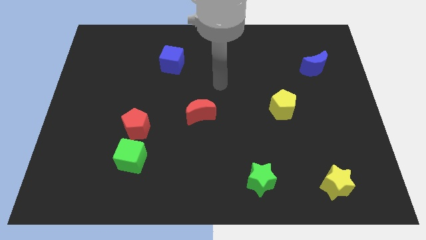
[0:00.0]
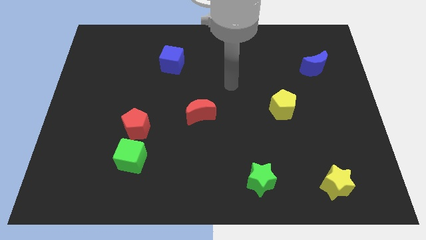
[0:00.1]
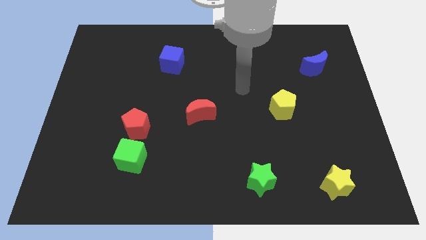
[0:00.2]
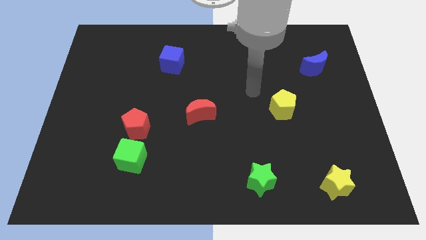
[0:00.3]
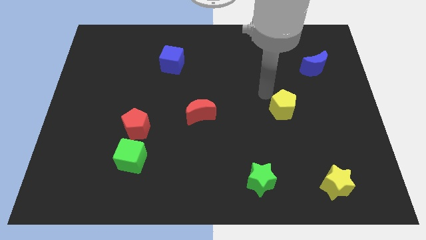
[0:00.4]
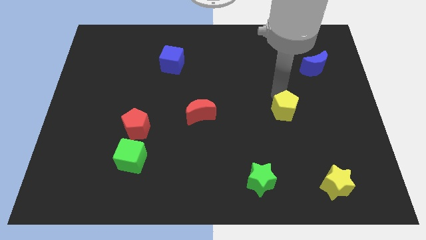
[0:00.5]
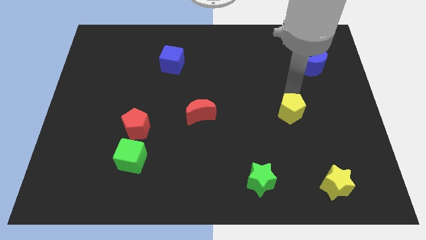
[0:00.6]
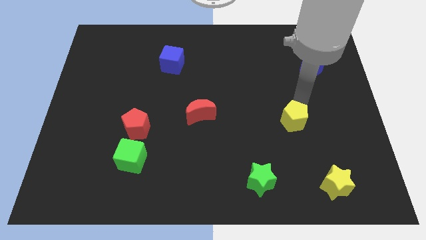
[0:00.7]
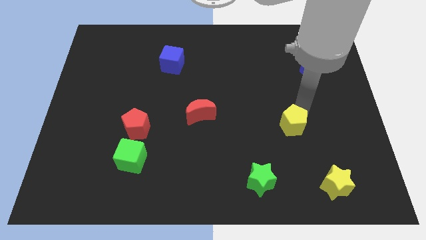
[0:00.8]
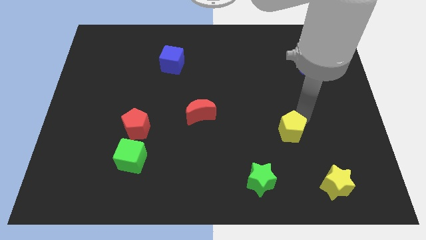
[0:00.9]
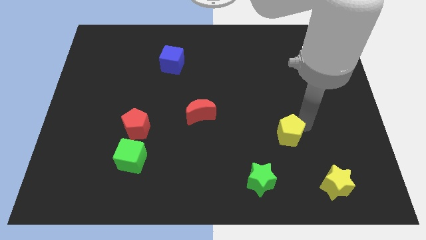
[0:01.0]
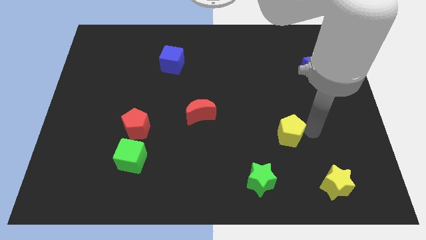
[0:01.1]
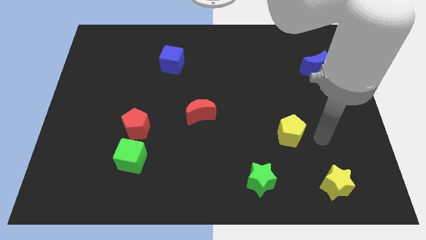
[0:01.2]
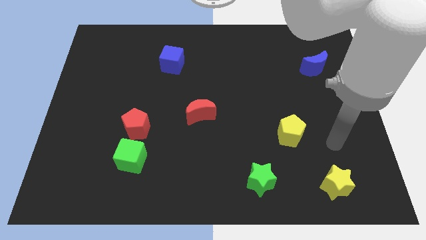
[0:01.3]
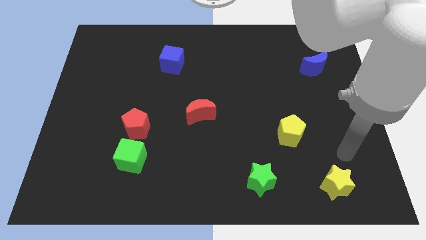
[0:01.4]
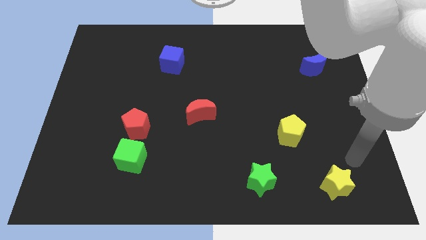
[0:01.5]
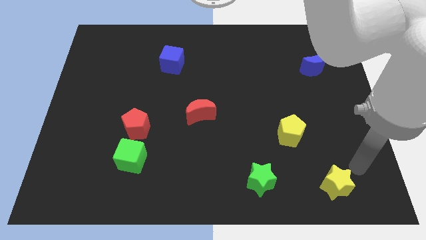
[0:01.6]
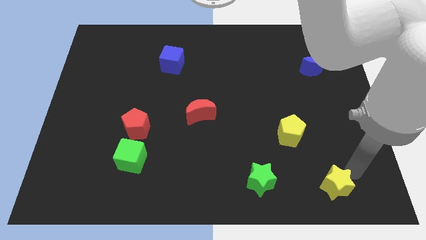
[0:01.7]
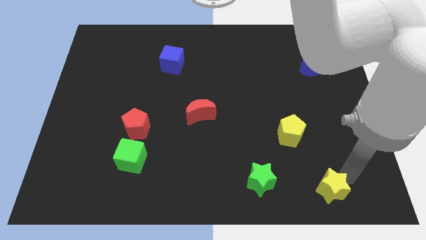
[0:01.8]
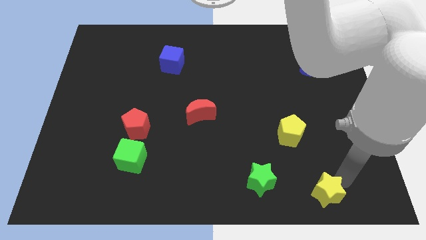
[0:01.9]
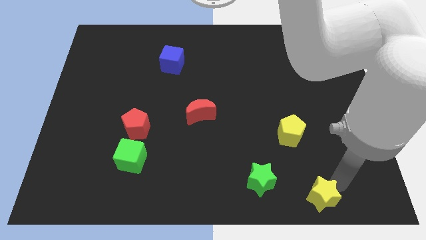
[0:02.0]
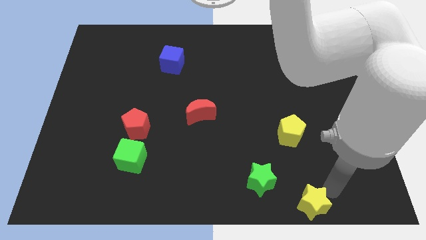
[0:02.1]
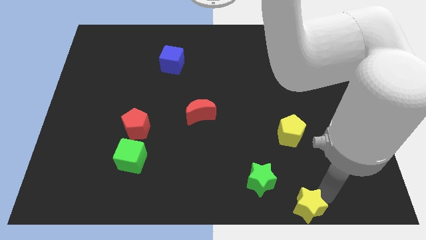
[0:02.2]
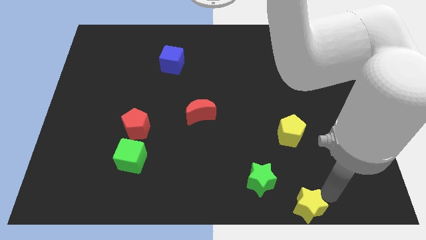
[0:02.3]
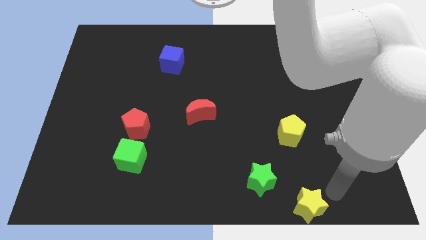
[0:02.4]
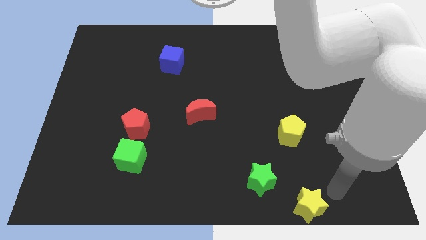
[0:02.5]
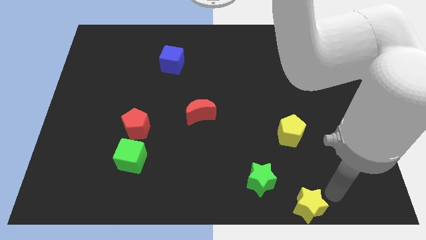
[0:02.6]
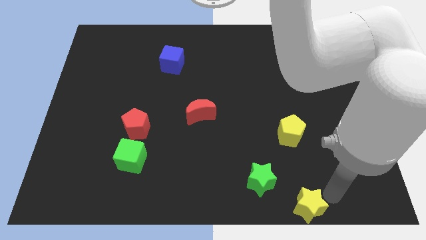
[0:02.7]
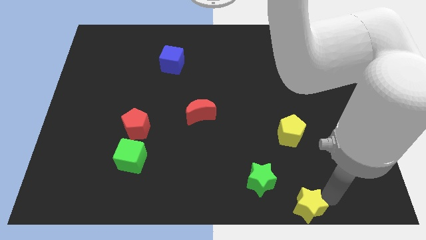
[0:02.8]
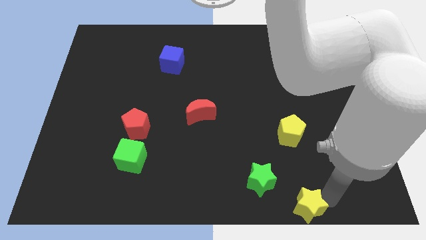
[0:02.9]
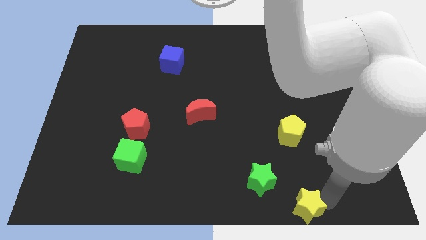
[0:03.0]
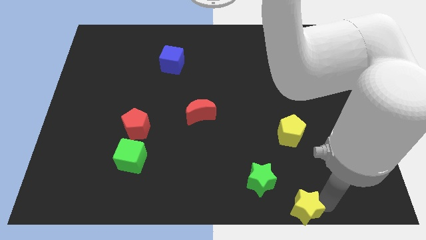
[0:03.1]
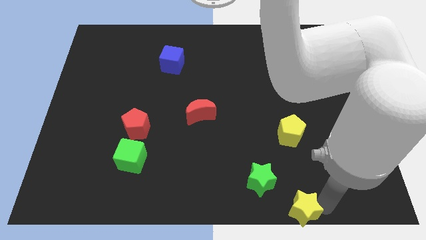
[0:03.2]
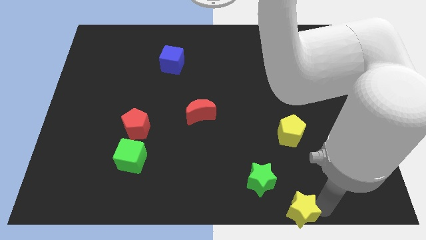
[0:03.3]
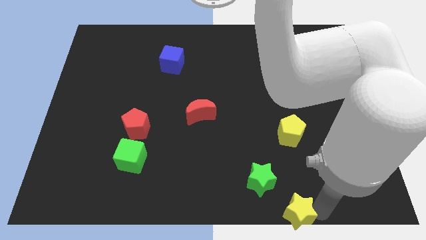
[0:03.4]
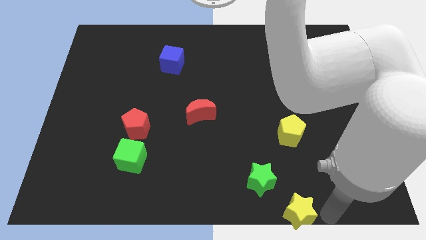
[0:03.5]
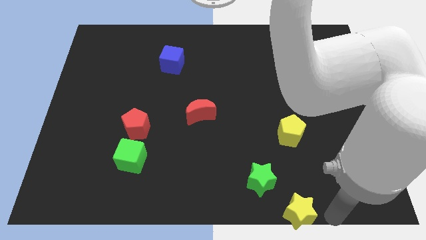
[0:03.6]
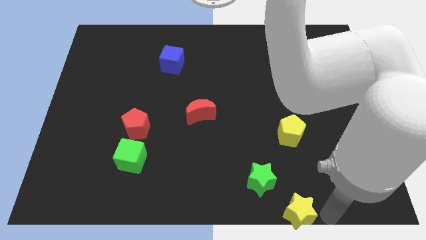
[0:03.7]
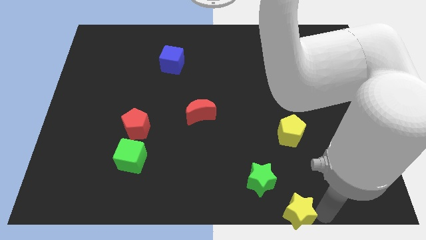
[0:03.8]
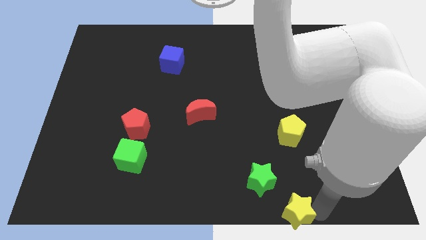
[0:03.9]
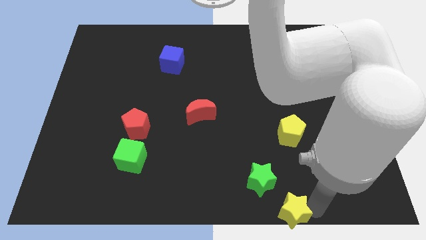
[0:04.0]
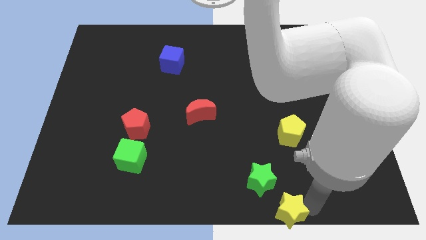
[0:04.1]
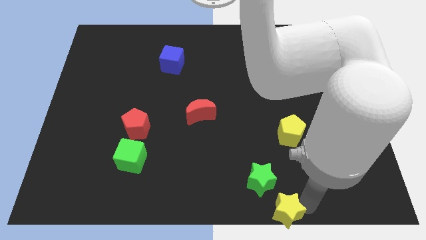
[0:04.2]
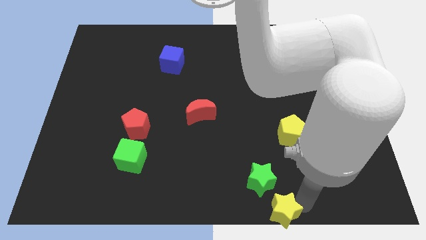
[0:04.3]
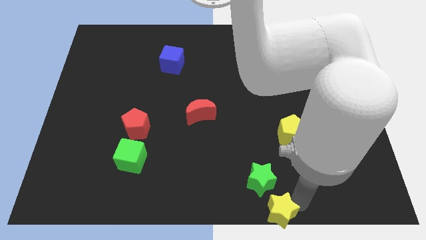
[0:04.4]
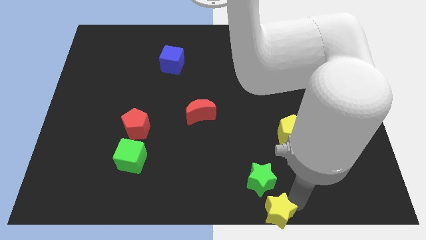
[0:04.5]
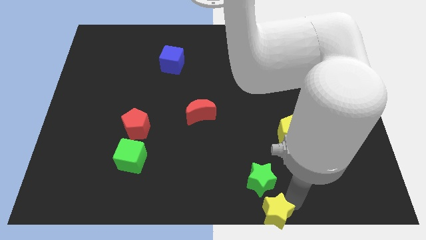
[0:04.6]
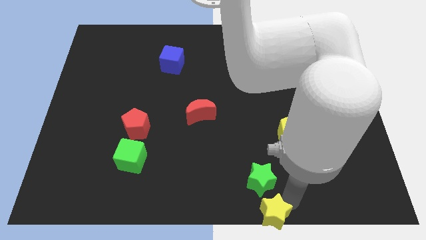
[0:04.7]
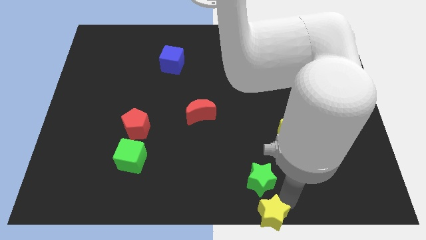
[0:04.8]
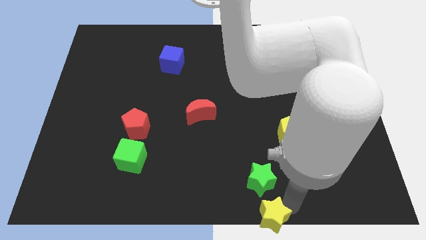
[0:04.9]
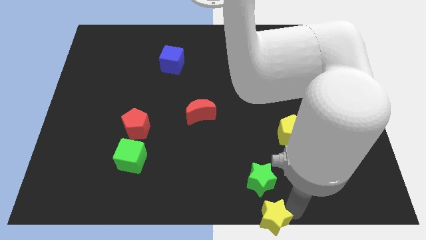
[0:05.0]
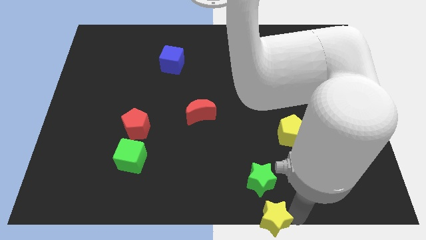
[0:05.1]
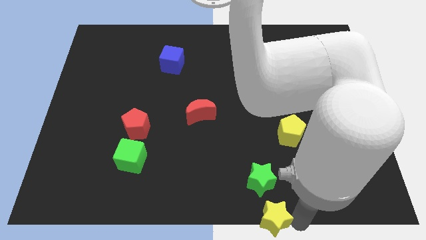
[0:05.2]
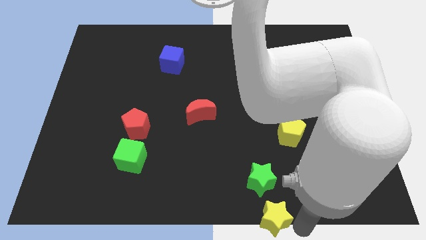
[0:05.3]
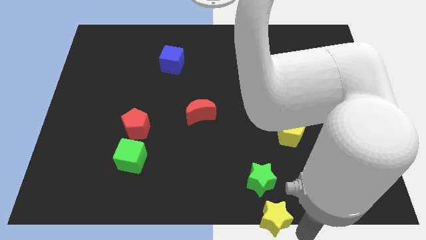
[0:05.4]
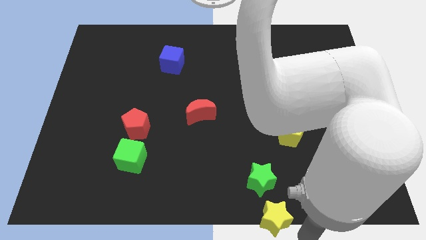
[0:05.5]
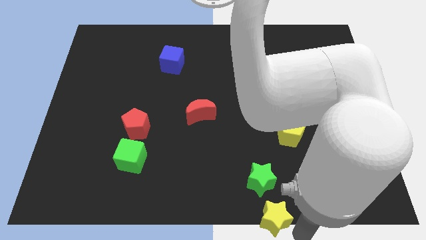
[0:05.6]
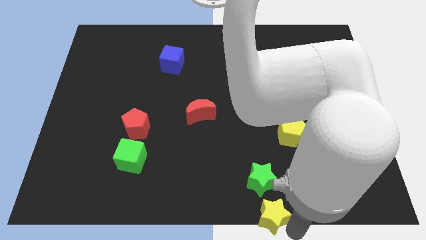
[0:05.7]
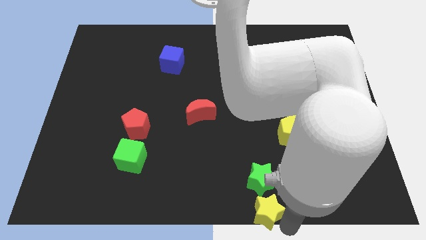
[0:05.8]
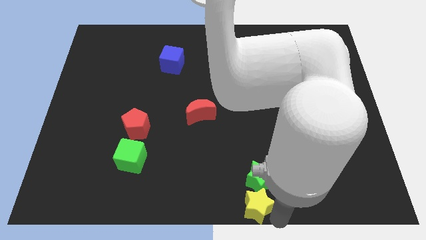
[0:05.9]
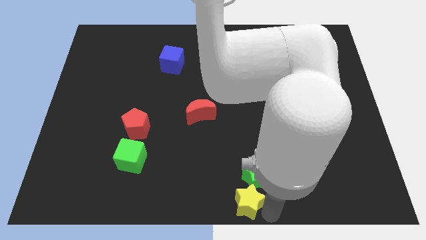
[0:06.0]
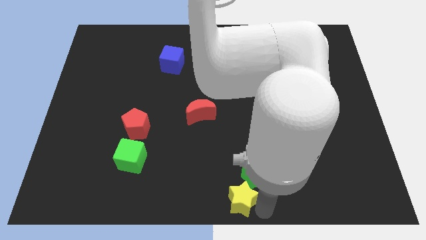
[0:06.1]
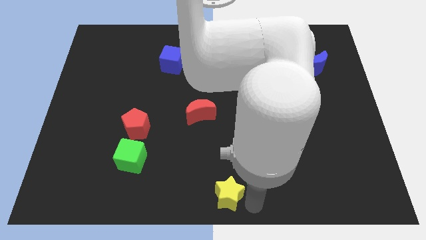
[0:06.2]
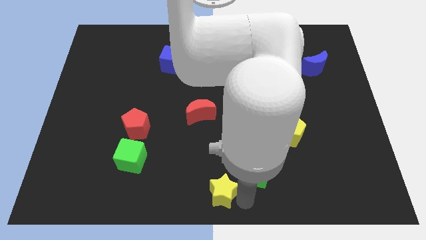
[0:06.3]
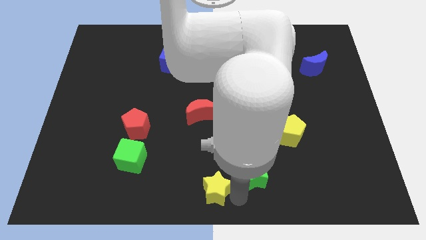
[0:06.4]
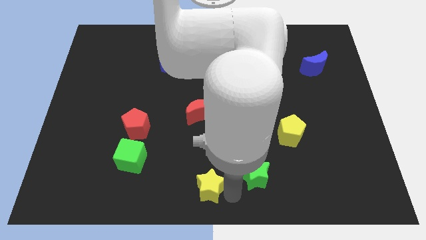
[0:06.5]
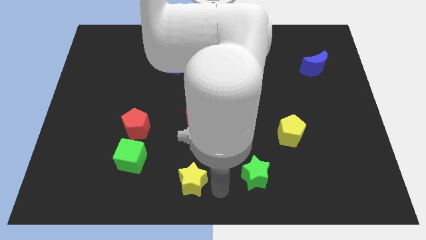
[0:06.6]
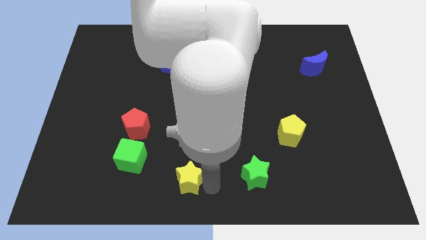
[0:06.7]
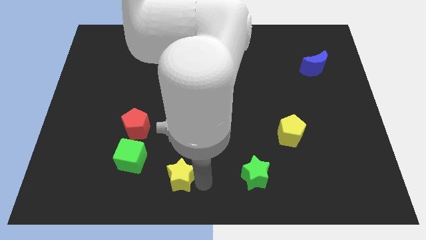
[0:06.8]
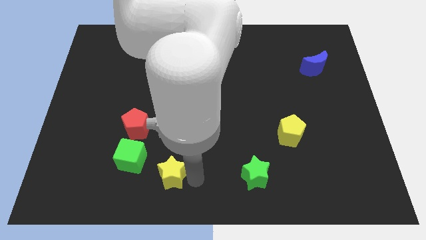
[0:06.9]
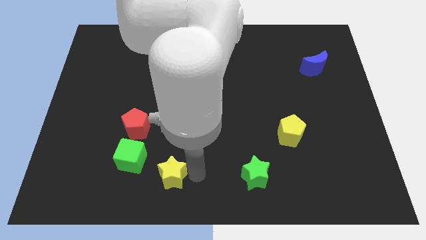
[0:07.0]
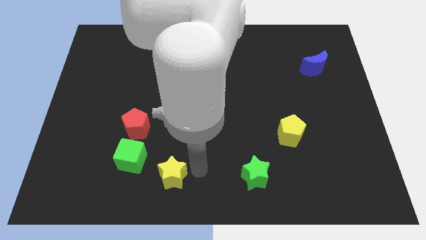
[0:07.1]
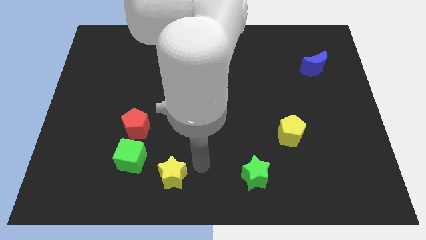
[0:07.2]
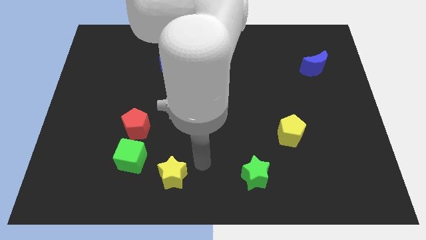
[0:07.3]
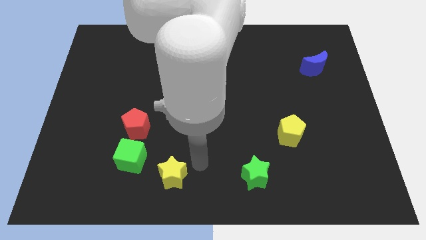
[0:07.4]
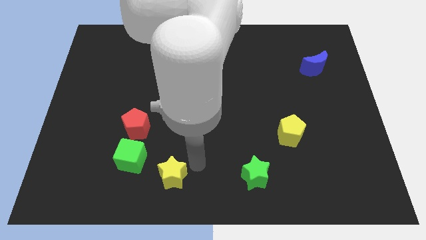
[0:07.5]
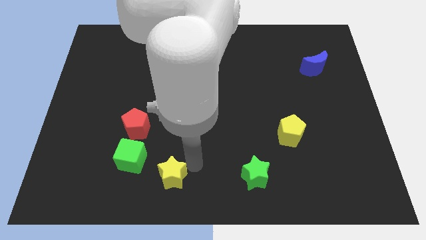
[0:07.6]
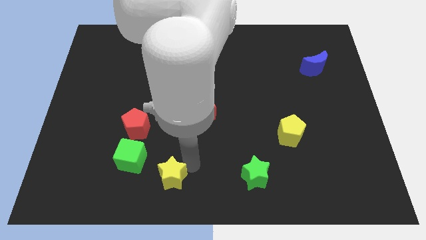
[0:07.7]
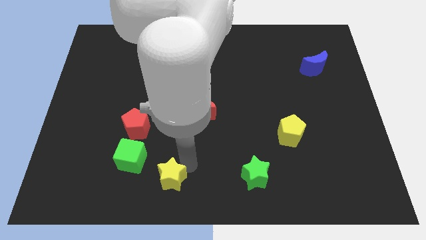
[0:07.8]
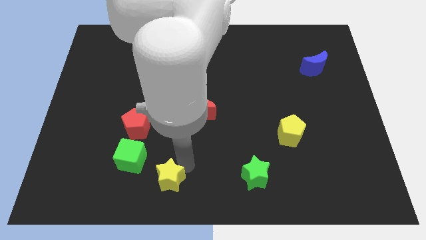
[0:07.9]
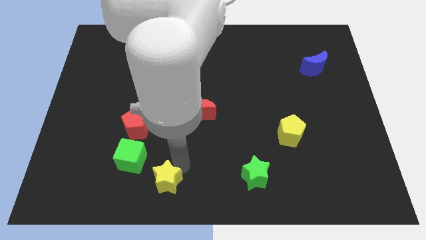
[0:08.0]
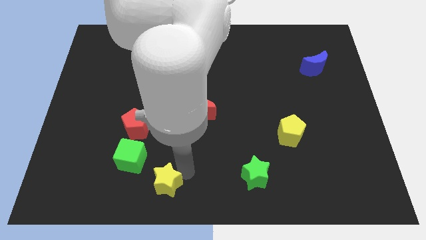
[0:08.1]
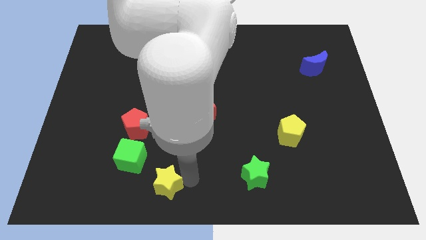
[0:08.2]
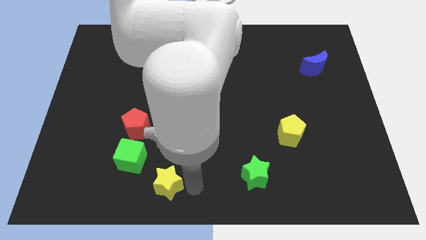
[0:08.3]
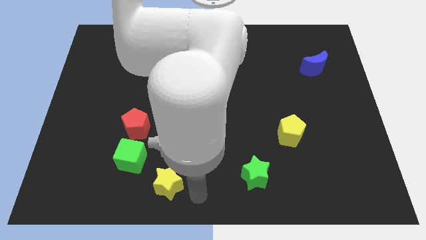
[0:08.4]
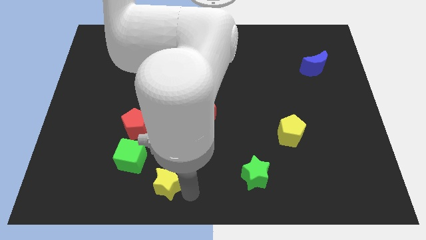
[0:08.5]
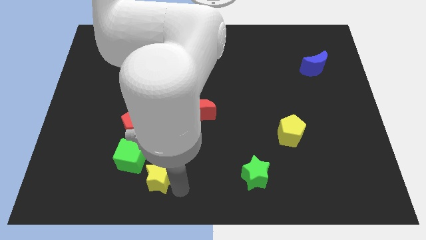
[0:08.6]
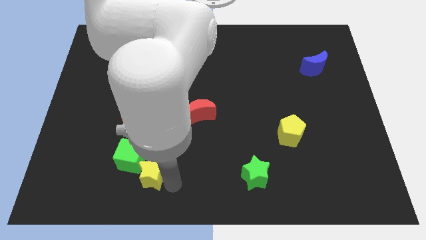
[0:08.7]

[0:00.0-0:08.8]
put the yellow star below the red pentagon
